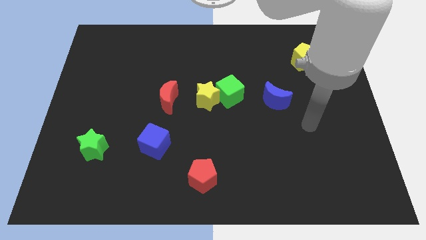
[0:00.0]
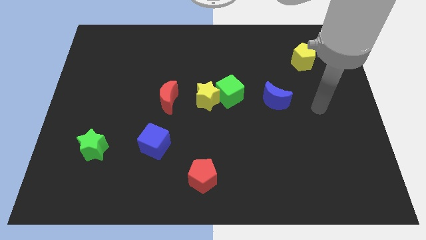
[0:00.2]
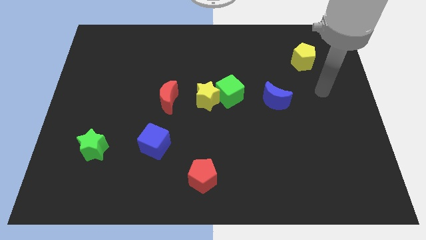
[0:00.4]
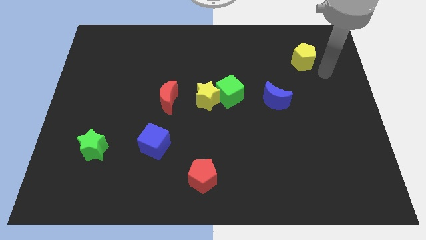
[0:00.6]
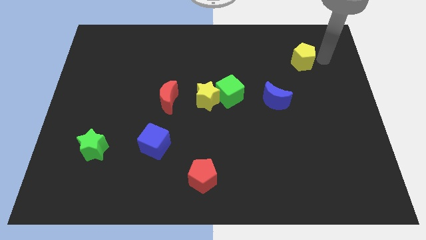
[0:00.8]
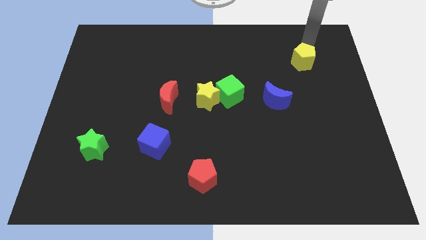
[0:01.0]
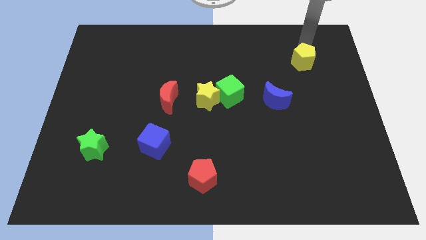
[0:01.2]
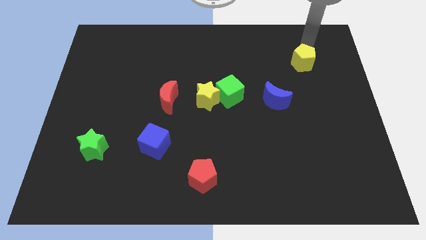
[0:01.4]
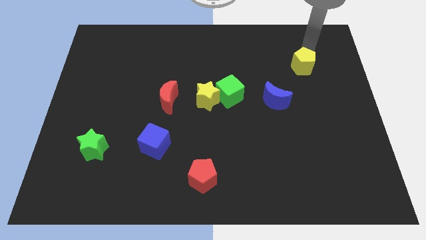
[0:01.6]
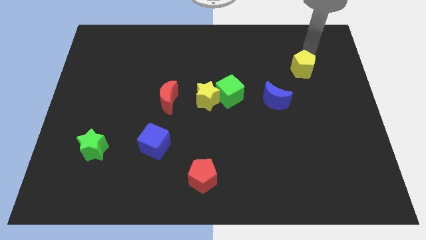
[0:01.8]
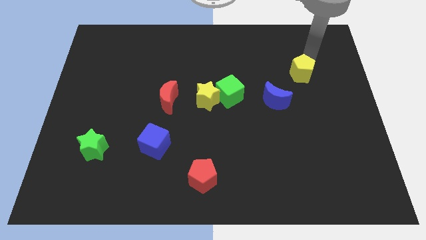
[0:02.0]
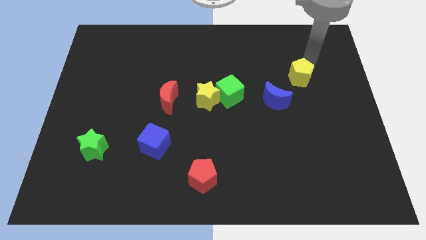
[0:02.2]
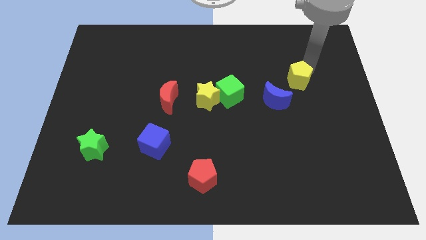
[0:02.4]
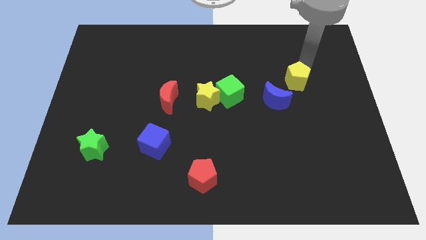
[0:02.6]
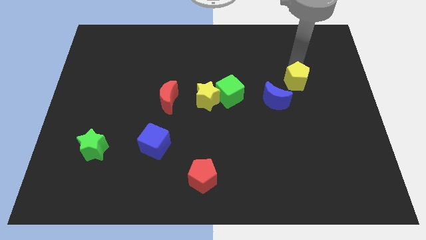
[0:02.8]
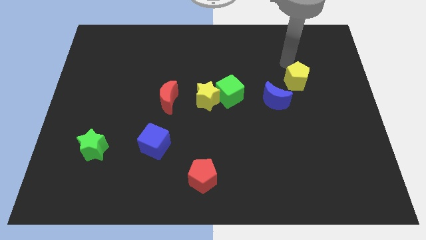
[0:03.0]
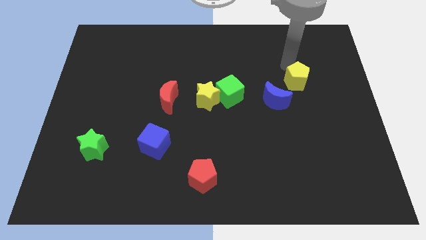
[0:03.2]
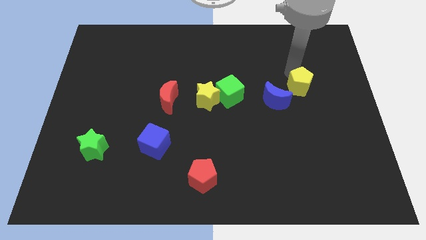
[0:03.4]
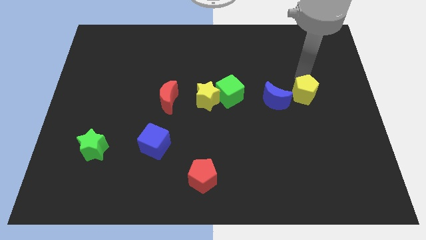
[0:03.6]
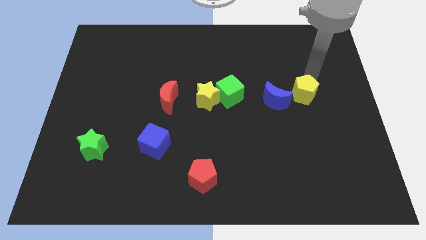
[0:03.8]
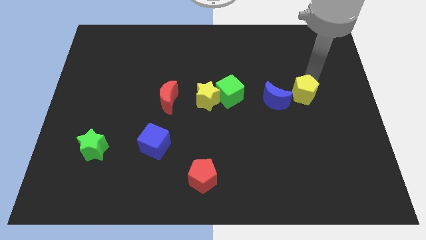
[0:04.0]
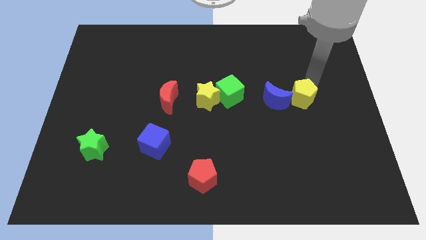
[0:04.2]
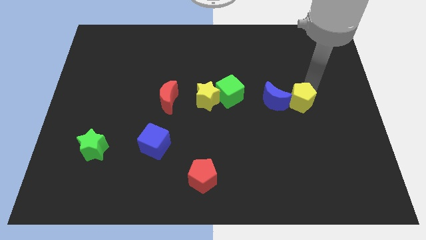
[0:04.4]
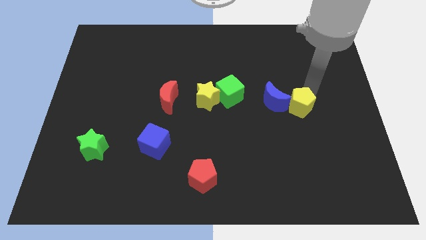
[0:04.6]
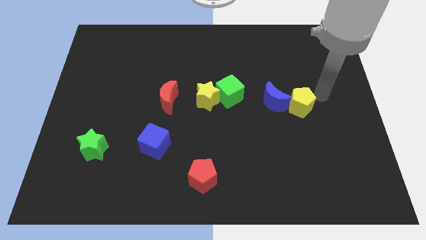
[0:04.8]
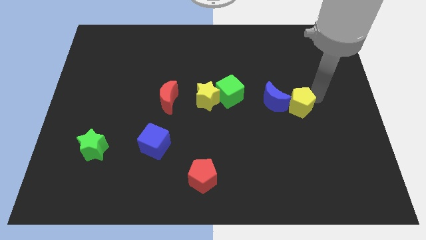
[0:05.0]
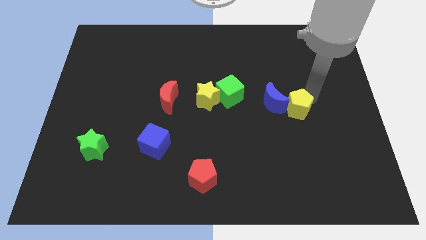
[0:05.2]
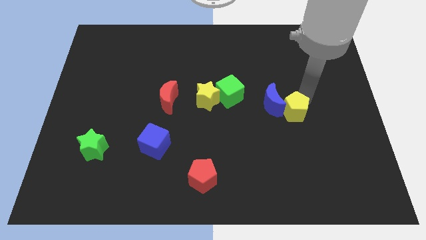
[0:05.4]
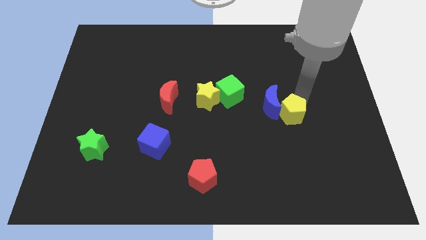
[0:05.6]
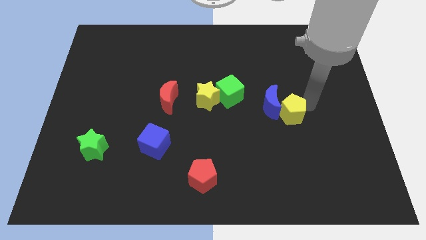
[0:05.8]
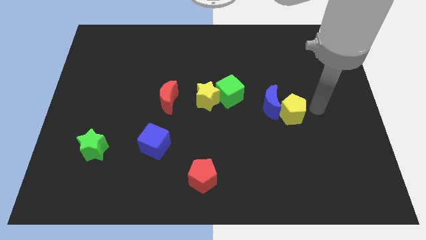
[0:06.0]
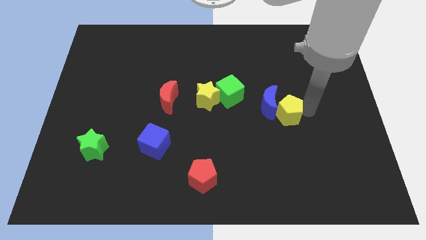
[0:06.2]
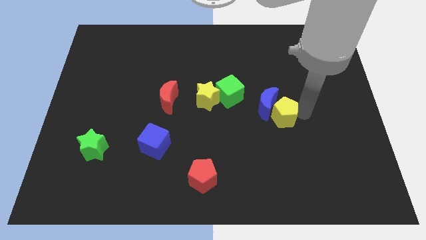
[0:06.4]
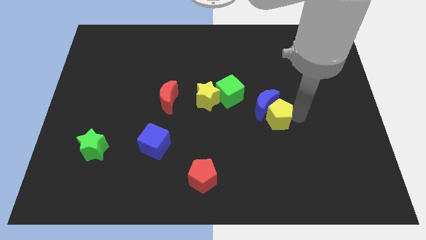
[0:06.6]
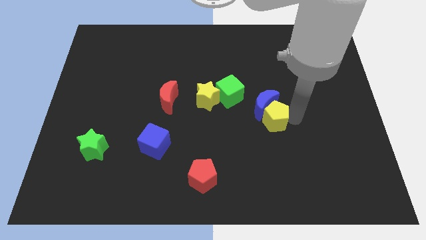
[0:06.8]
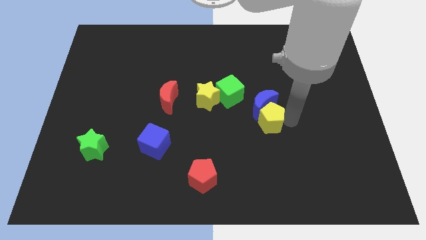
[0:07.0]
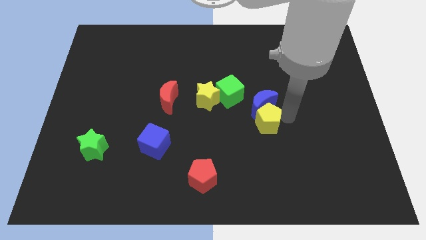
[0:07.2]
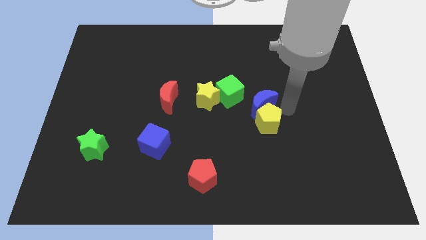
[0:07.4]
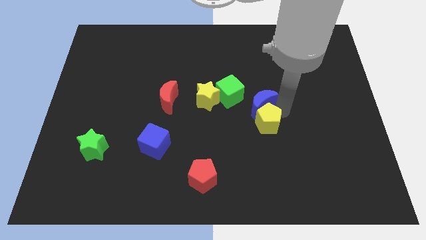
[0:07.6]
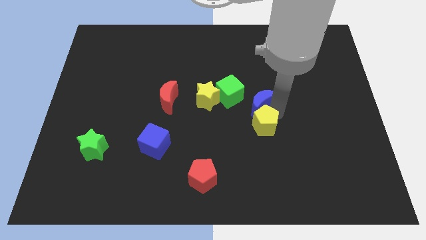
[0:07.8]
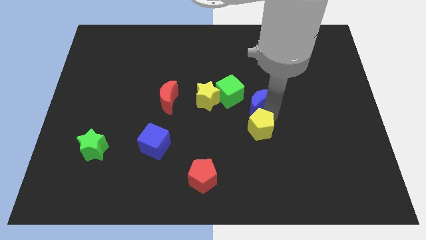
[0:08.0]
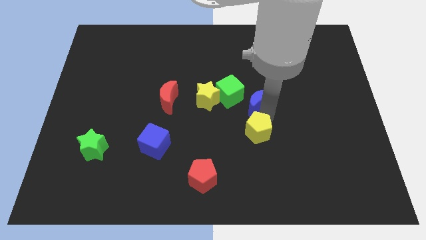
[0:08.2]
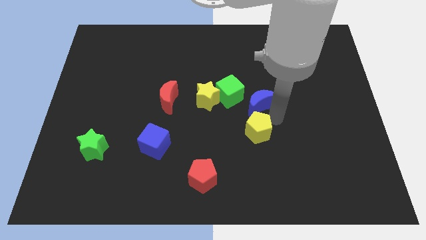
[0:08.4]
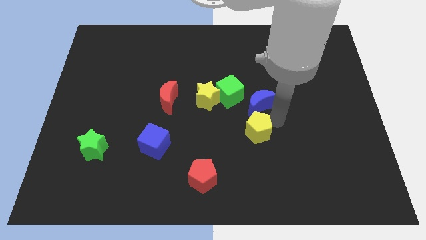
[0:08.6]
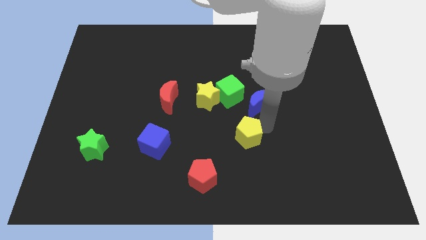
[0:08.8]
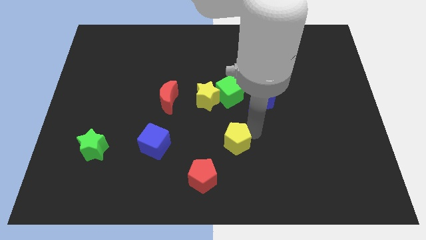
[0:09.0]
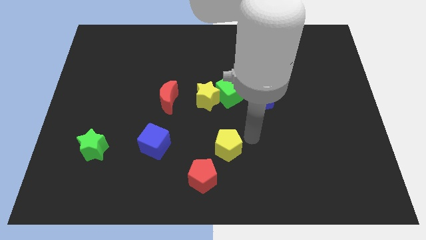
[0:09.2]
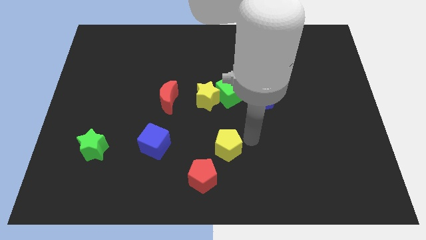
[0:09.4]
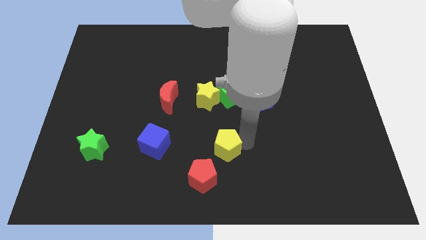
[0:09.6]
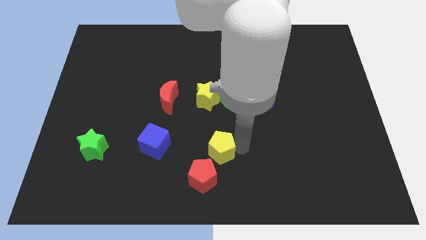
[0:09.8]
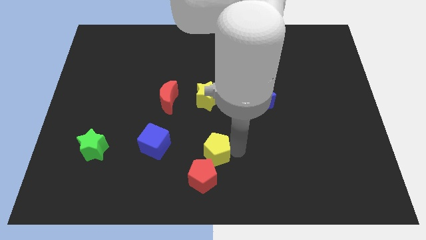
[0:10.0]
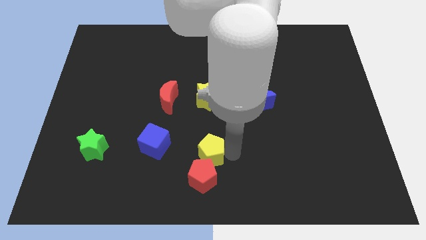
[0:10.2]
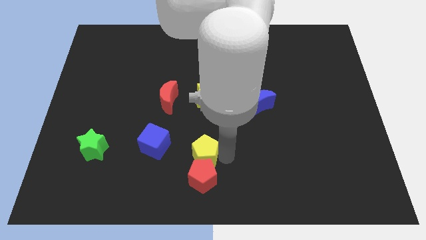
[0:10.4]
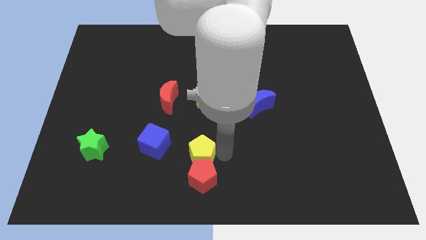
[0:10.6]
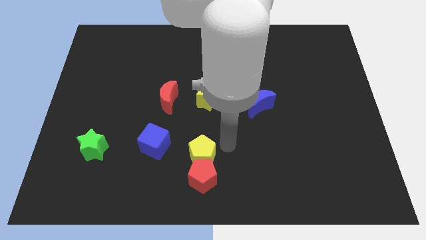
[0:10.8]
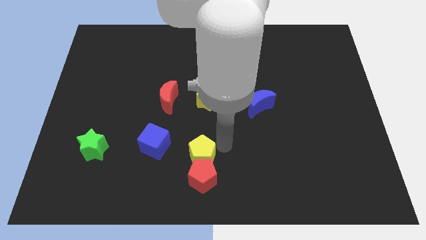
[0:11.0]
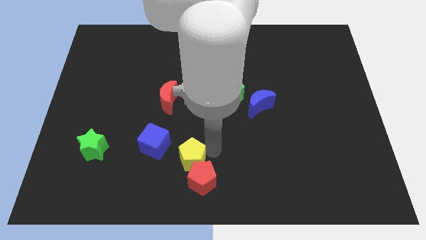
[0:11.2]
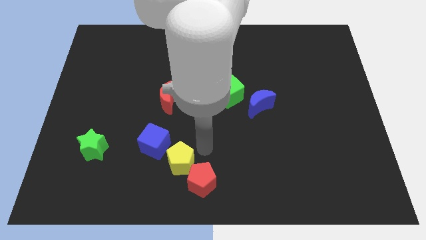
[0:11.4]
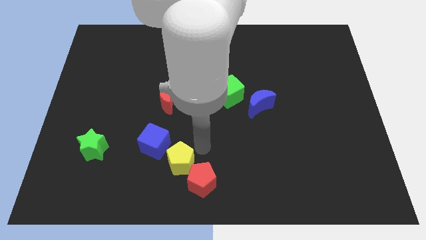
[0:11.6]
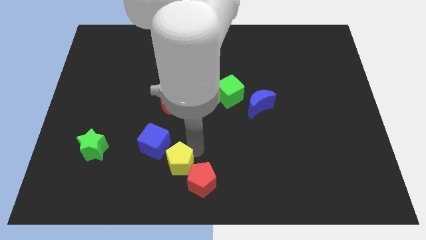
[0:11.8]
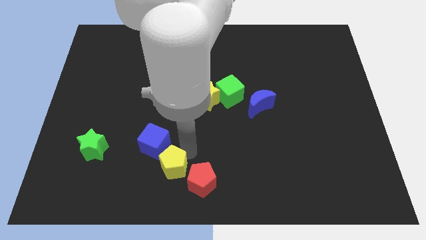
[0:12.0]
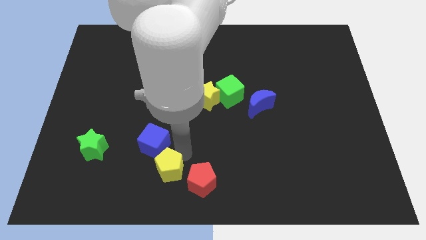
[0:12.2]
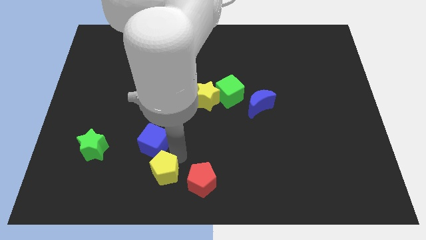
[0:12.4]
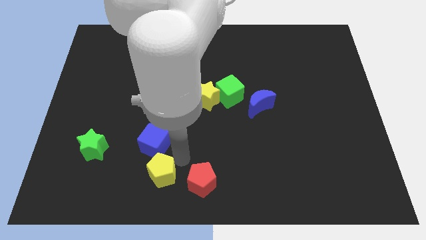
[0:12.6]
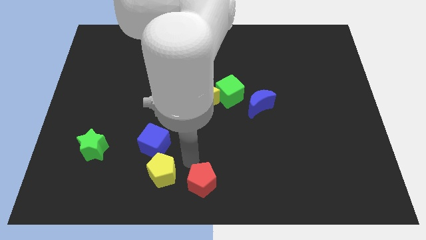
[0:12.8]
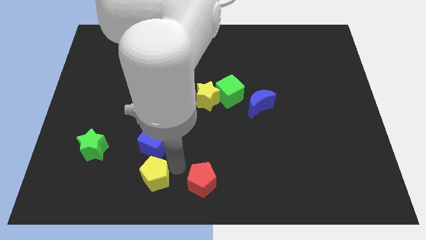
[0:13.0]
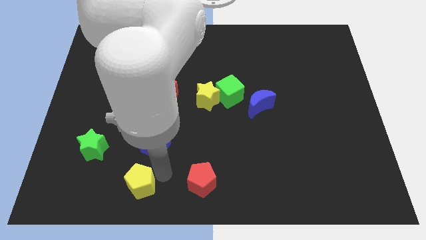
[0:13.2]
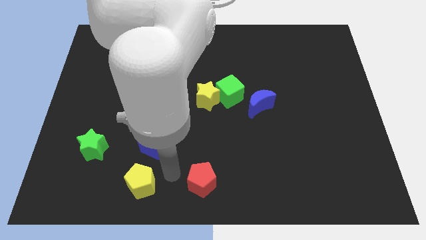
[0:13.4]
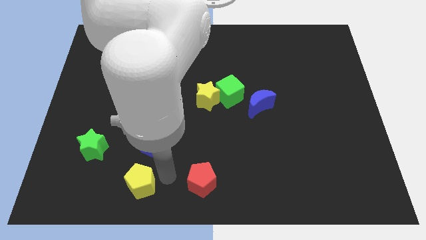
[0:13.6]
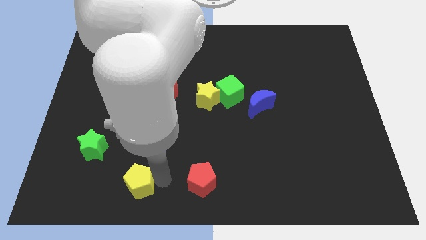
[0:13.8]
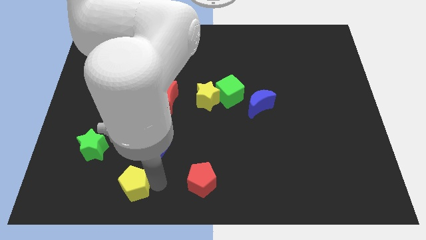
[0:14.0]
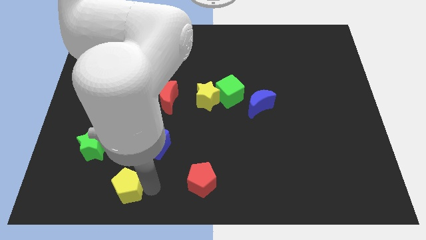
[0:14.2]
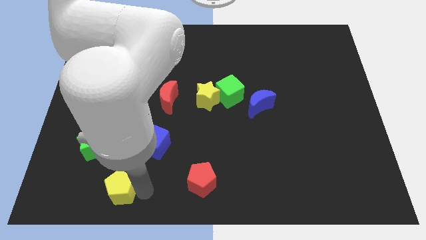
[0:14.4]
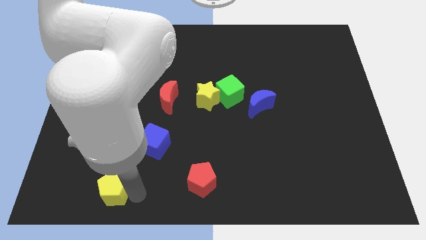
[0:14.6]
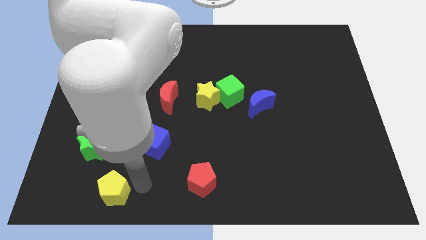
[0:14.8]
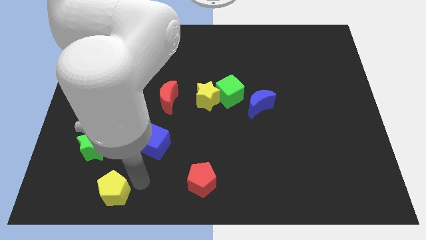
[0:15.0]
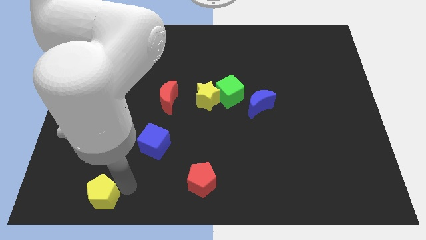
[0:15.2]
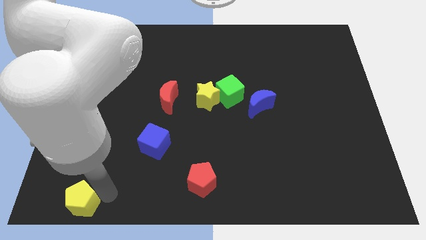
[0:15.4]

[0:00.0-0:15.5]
slide the yellow pentagon to the bottom left
